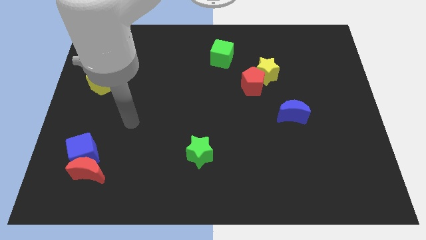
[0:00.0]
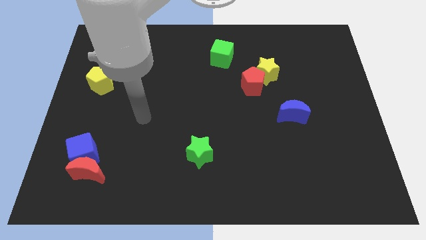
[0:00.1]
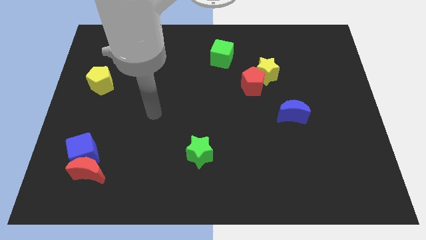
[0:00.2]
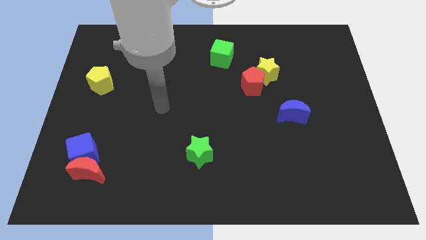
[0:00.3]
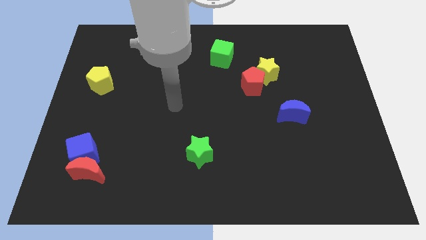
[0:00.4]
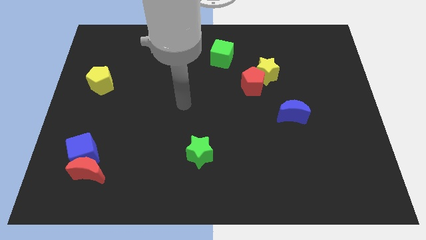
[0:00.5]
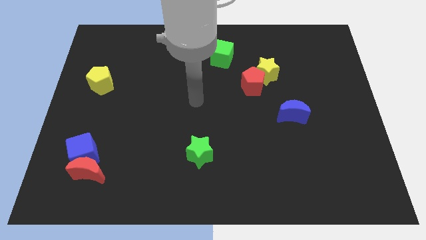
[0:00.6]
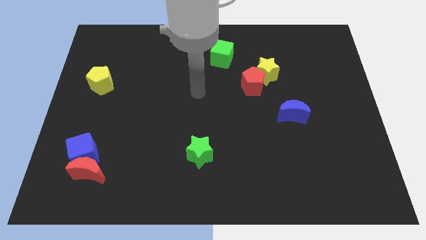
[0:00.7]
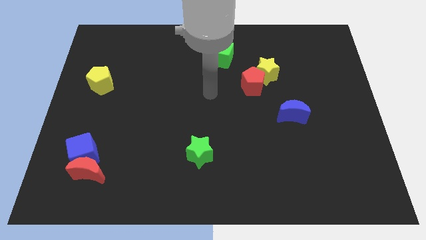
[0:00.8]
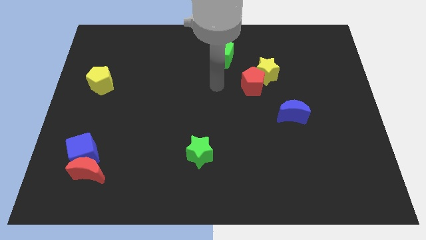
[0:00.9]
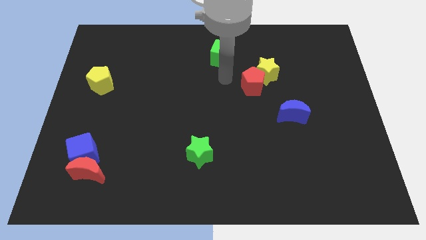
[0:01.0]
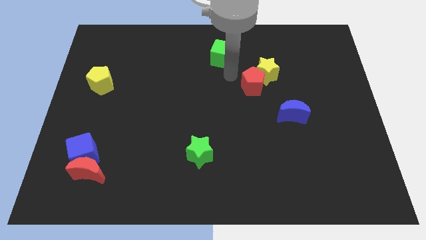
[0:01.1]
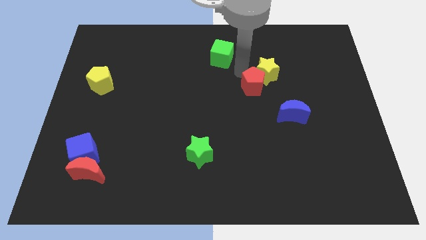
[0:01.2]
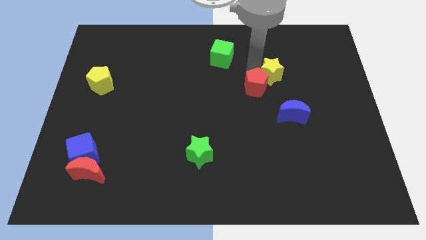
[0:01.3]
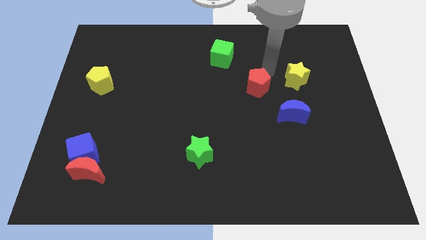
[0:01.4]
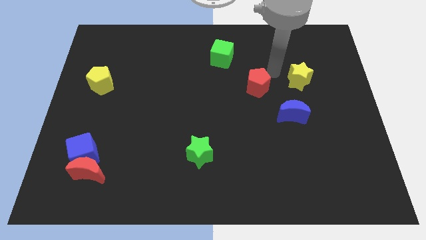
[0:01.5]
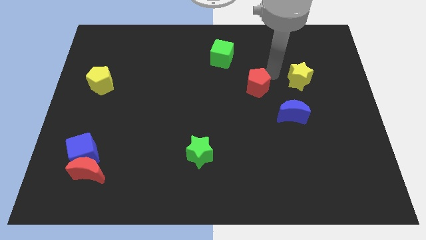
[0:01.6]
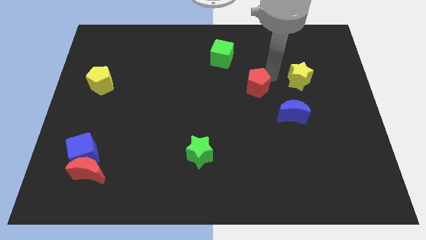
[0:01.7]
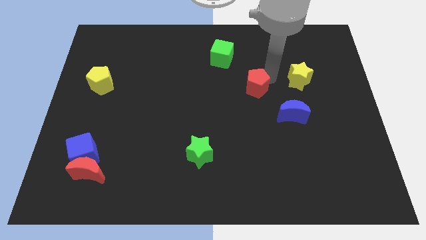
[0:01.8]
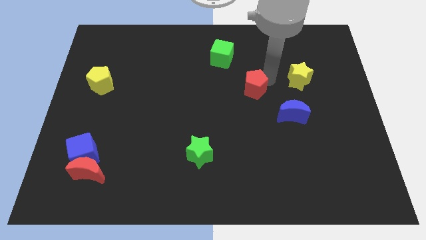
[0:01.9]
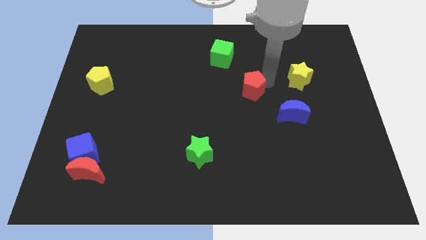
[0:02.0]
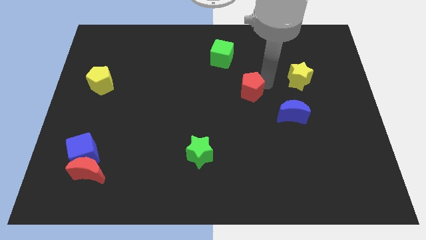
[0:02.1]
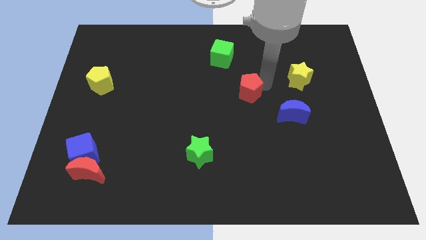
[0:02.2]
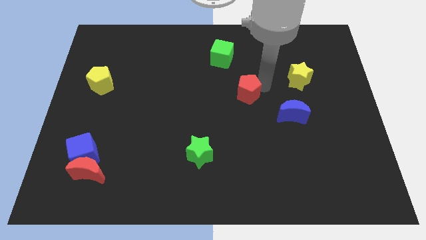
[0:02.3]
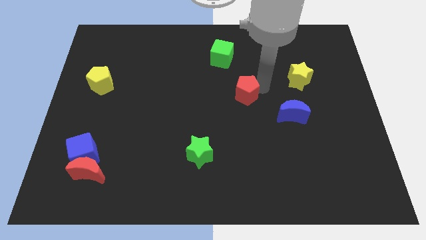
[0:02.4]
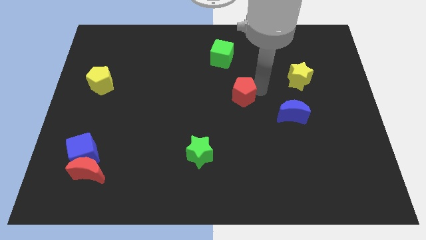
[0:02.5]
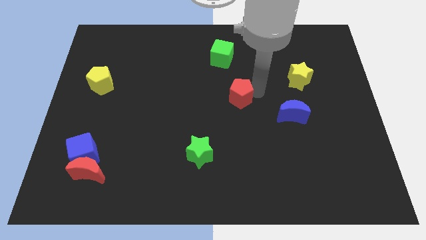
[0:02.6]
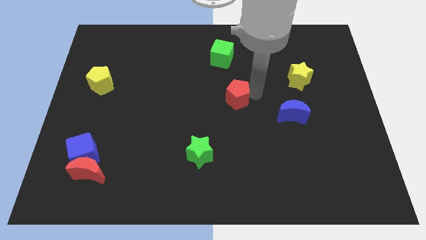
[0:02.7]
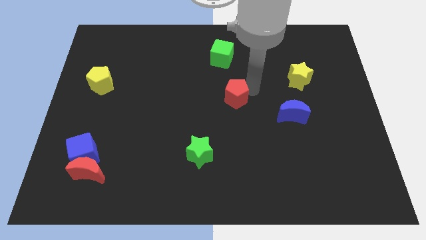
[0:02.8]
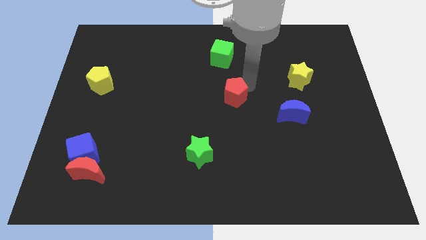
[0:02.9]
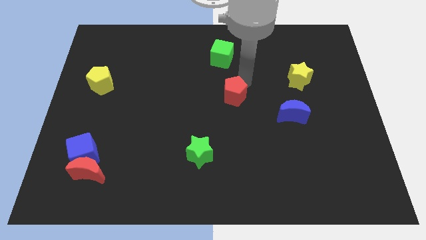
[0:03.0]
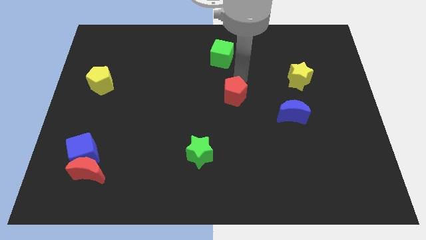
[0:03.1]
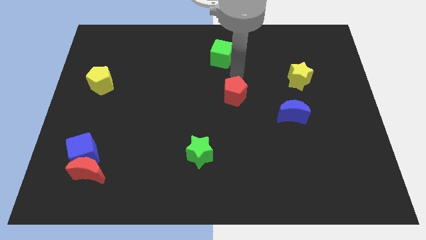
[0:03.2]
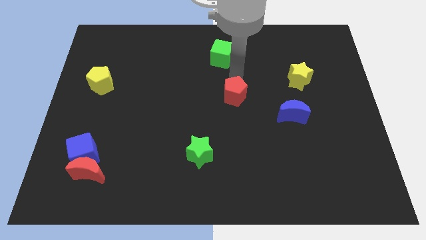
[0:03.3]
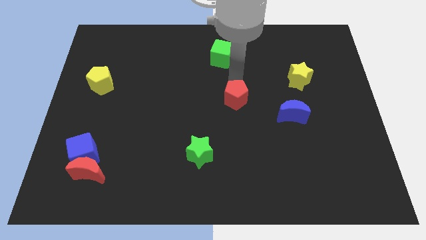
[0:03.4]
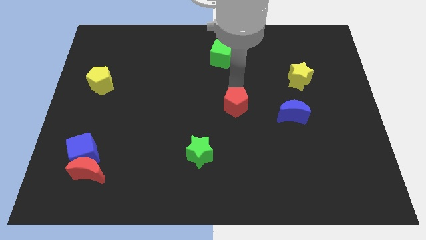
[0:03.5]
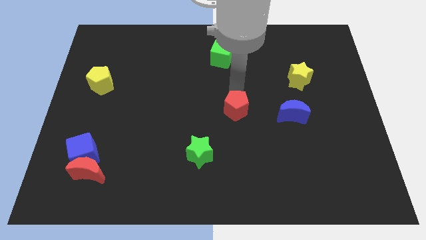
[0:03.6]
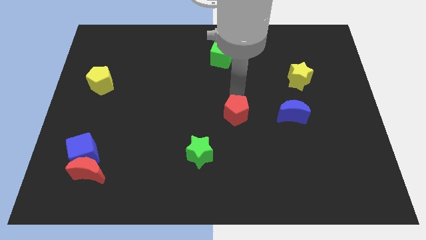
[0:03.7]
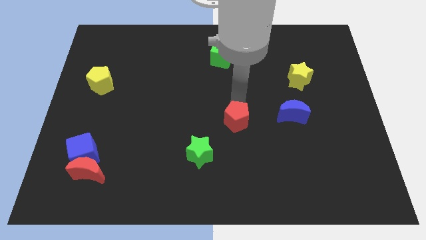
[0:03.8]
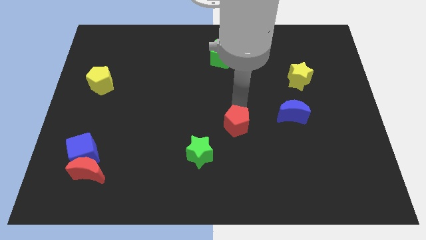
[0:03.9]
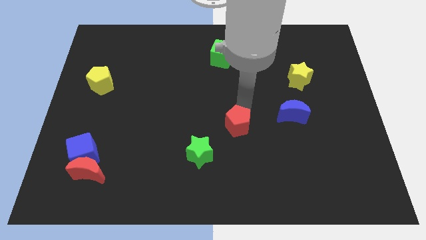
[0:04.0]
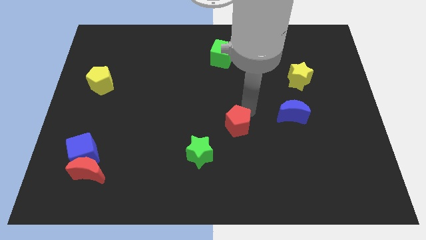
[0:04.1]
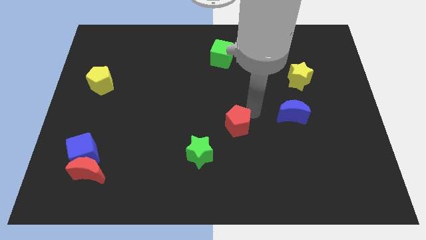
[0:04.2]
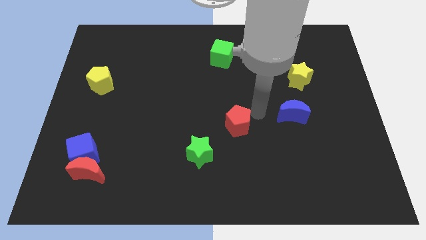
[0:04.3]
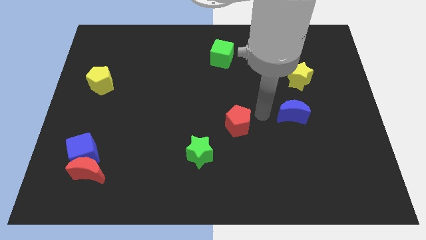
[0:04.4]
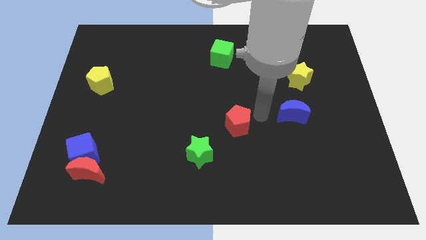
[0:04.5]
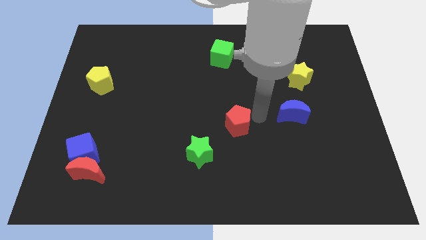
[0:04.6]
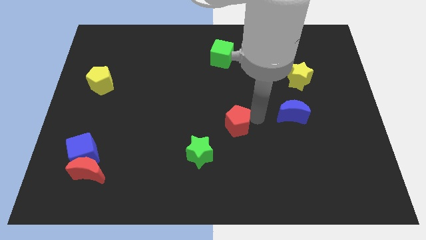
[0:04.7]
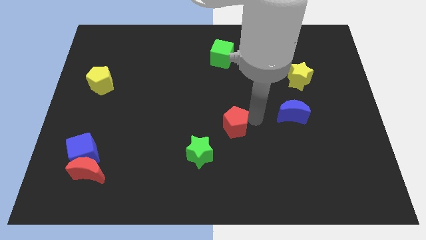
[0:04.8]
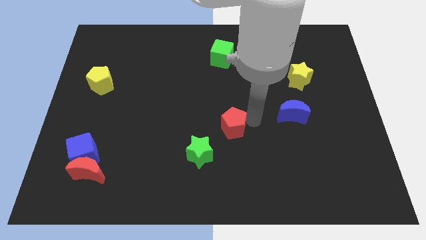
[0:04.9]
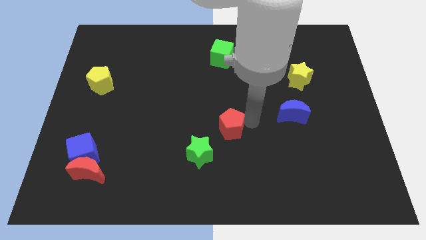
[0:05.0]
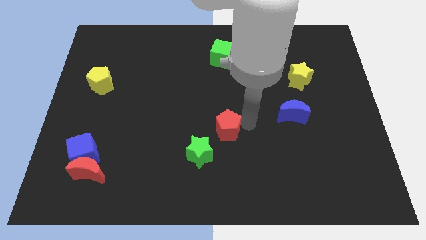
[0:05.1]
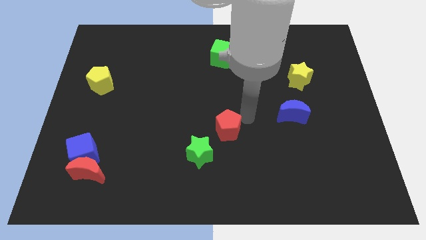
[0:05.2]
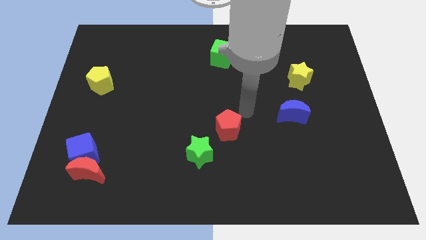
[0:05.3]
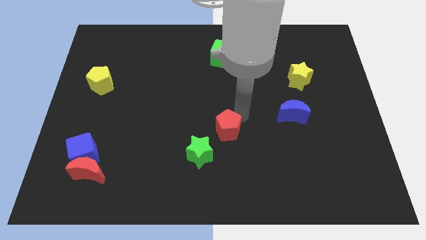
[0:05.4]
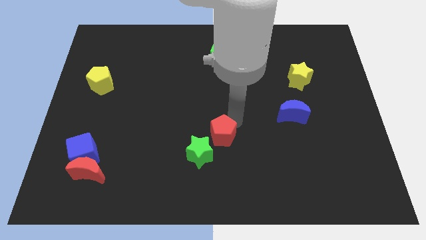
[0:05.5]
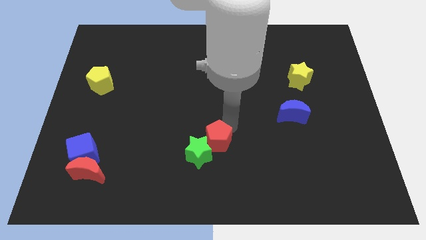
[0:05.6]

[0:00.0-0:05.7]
slide the red pentagon towards the green star

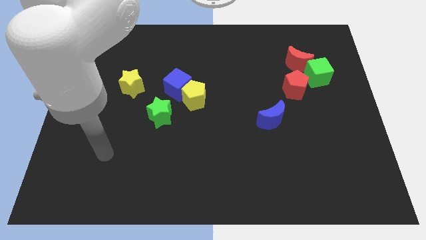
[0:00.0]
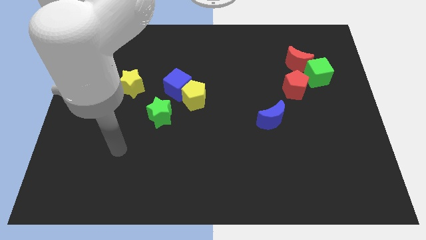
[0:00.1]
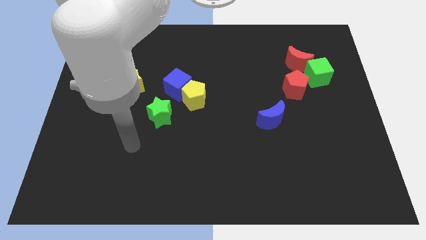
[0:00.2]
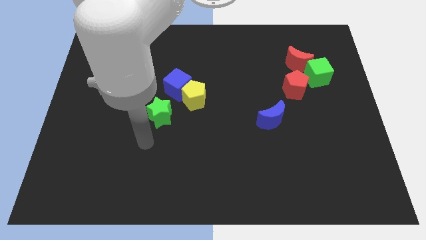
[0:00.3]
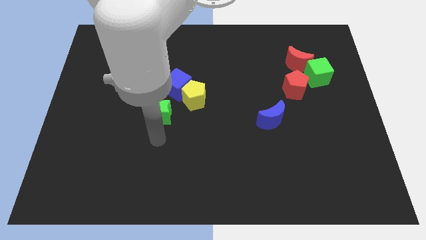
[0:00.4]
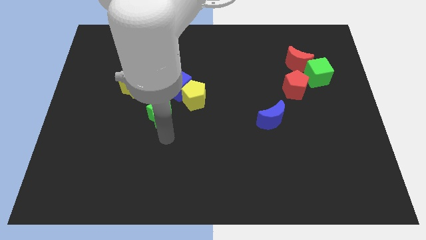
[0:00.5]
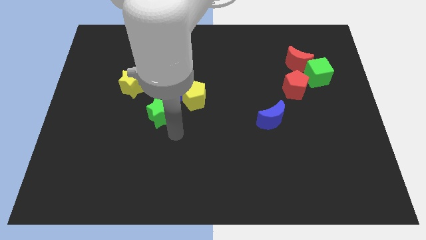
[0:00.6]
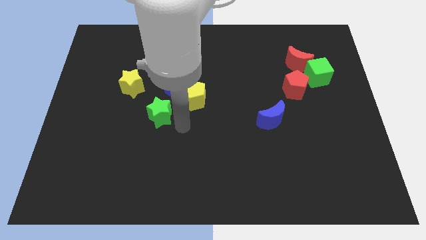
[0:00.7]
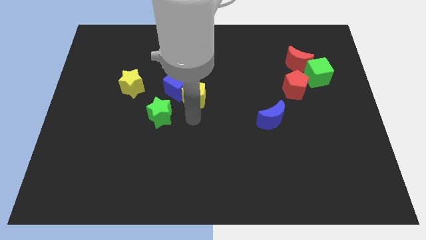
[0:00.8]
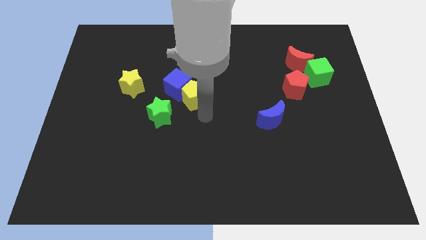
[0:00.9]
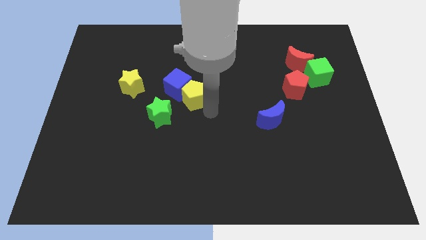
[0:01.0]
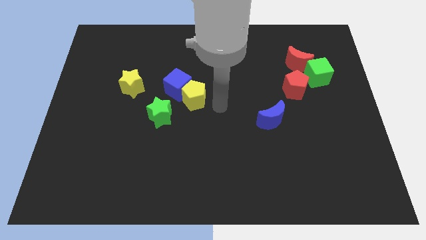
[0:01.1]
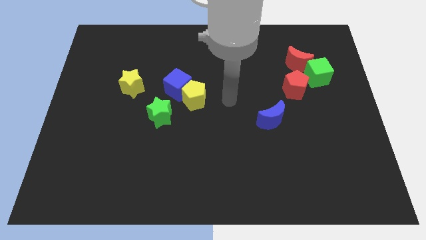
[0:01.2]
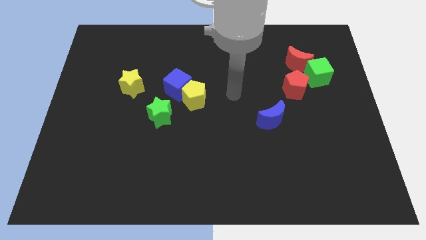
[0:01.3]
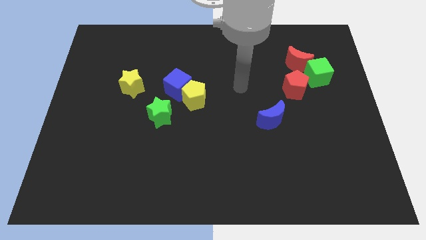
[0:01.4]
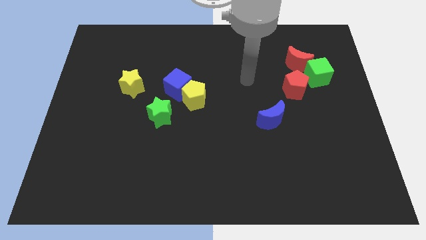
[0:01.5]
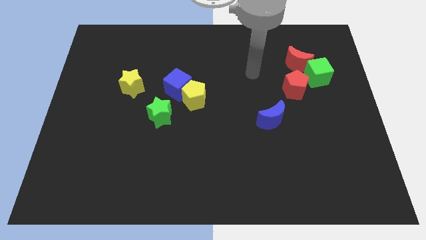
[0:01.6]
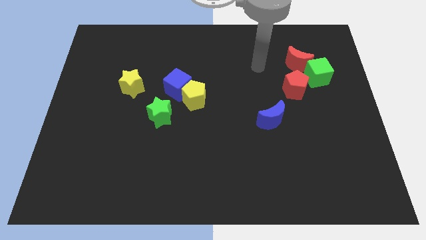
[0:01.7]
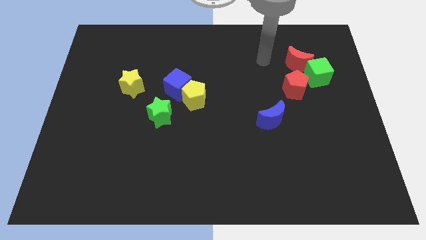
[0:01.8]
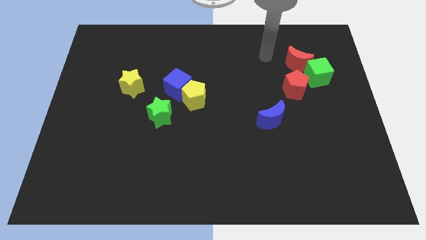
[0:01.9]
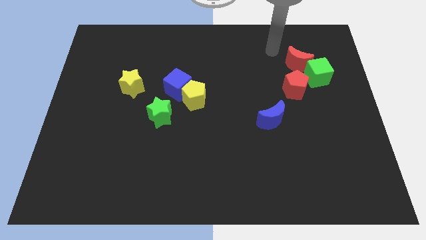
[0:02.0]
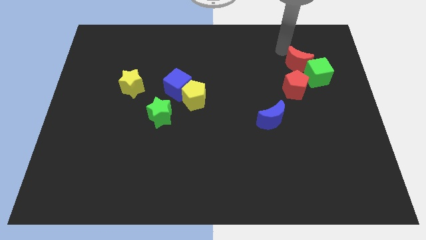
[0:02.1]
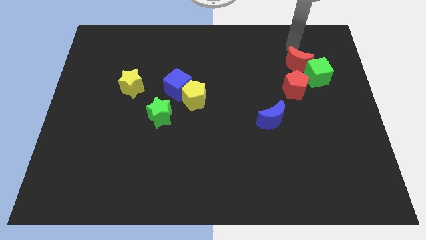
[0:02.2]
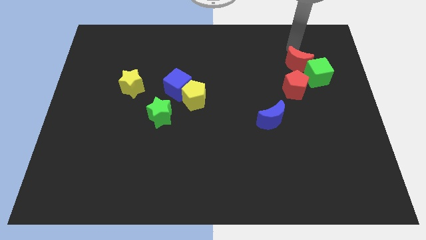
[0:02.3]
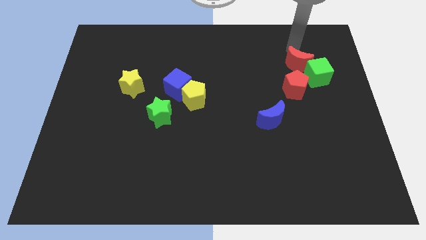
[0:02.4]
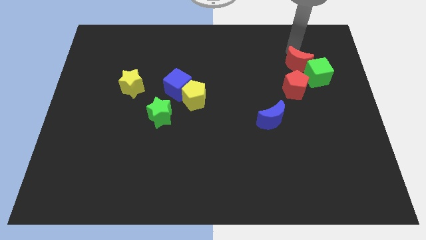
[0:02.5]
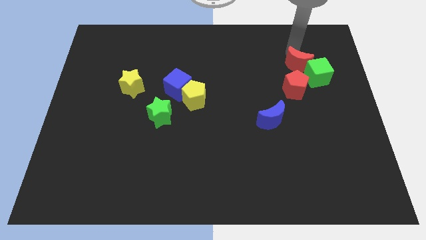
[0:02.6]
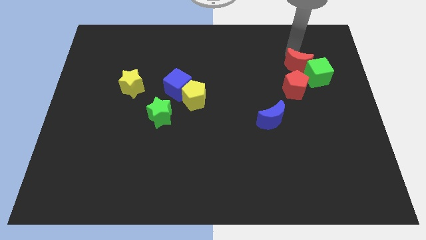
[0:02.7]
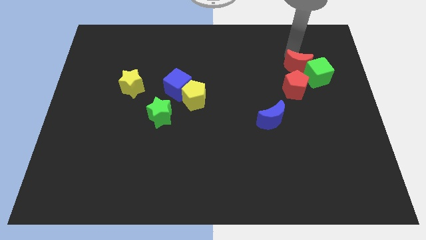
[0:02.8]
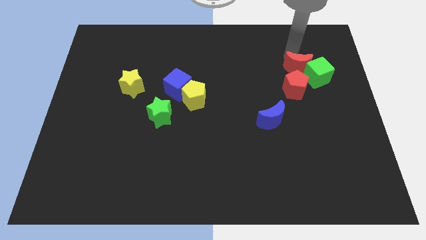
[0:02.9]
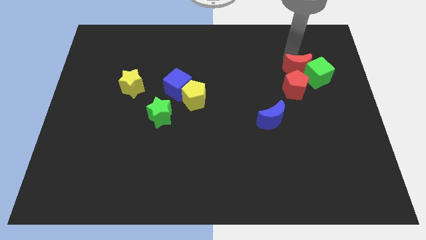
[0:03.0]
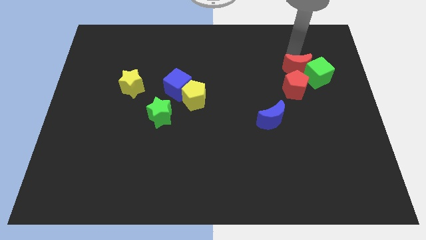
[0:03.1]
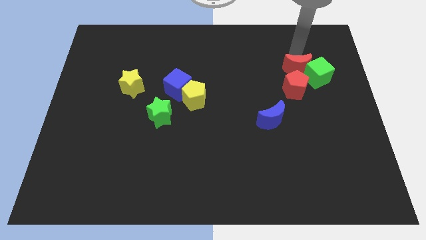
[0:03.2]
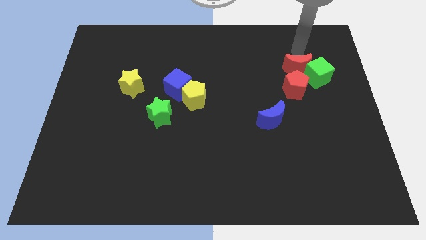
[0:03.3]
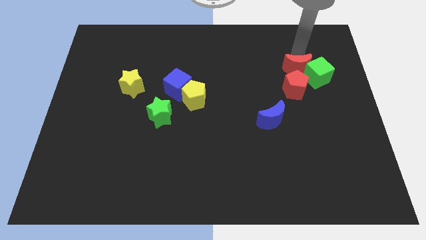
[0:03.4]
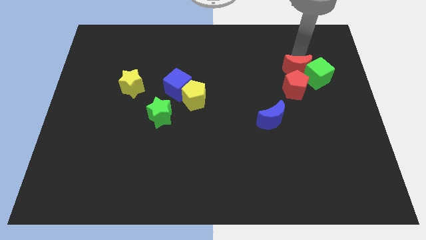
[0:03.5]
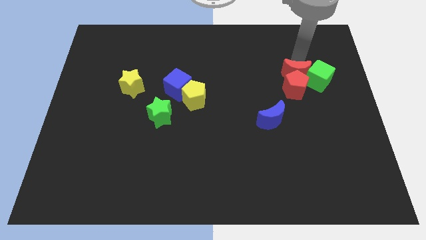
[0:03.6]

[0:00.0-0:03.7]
move the red moon towards the red pentagon
